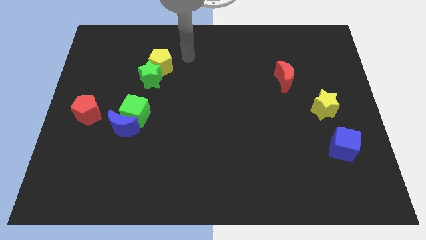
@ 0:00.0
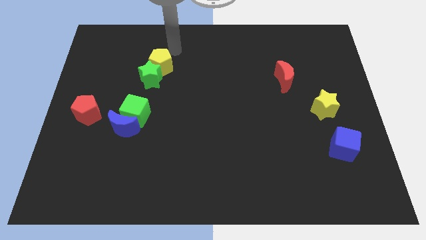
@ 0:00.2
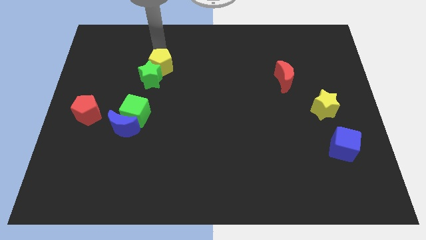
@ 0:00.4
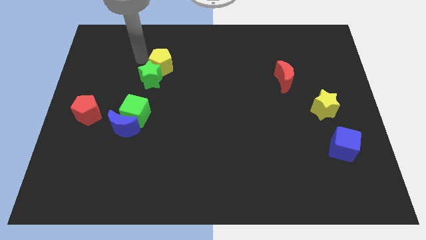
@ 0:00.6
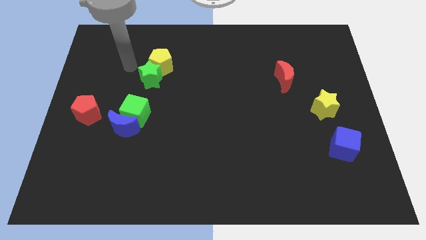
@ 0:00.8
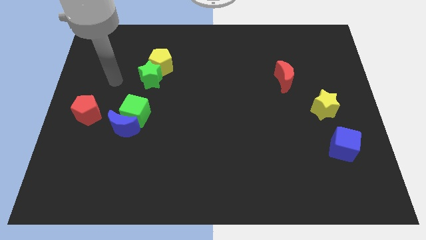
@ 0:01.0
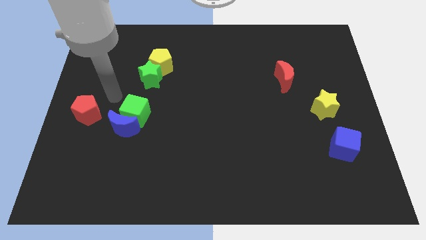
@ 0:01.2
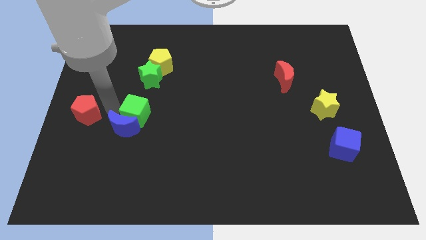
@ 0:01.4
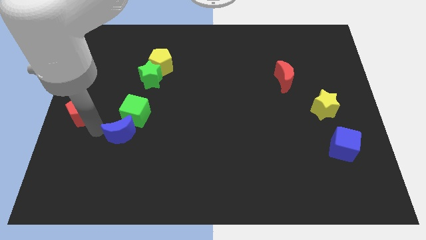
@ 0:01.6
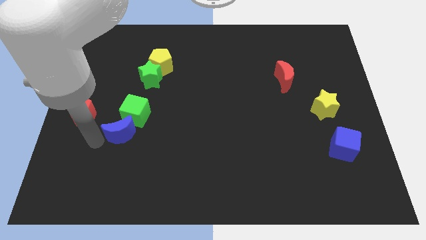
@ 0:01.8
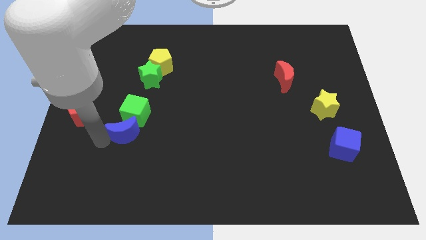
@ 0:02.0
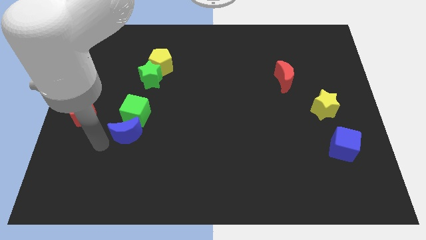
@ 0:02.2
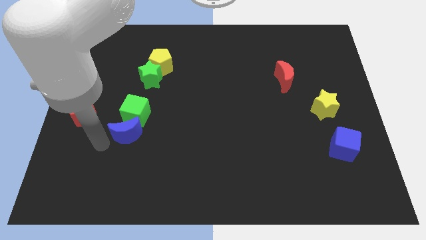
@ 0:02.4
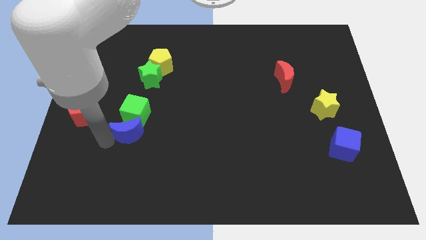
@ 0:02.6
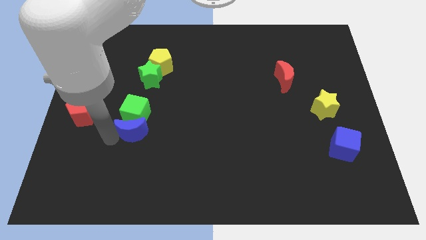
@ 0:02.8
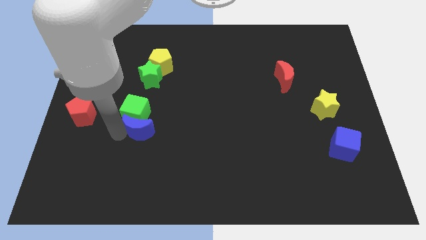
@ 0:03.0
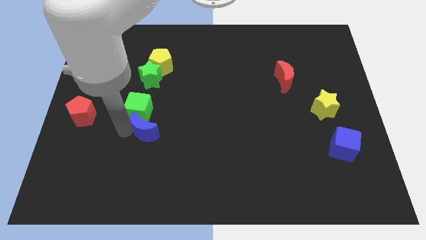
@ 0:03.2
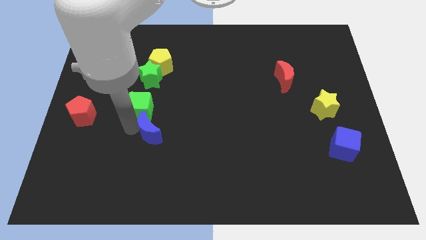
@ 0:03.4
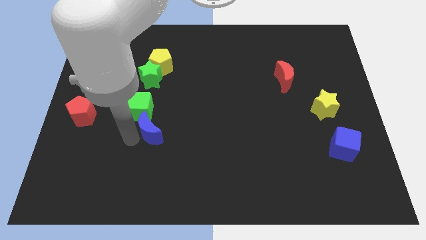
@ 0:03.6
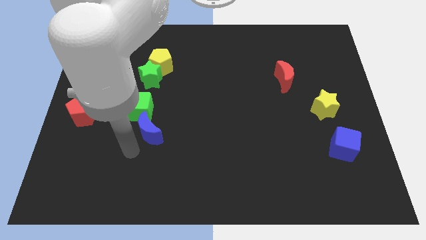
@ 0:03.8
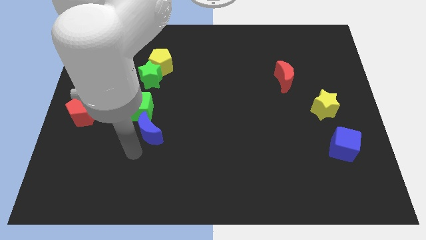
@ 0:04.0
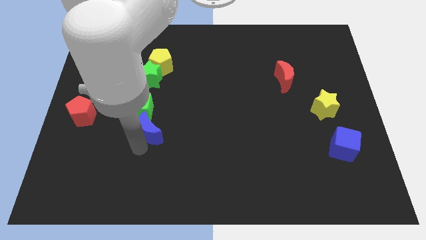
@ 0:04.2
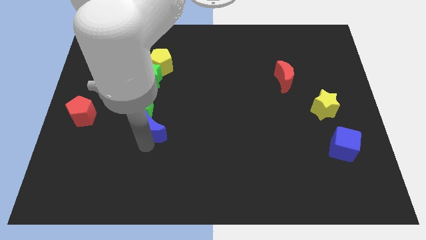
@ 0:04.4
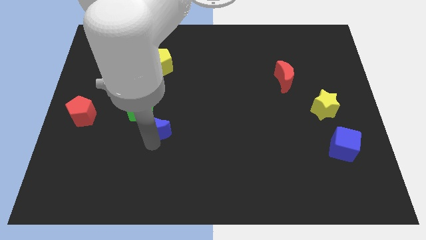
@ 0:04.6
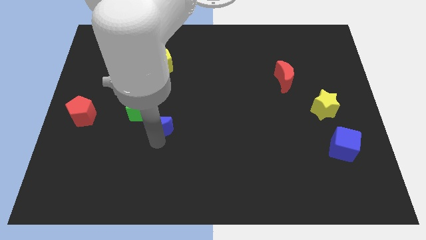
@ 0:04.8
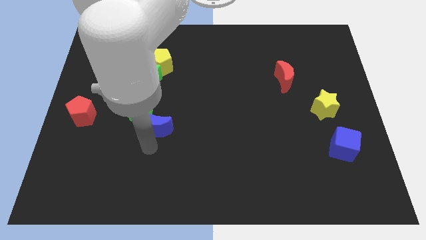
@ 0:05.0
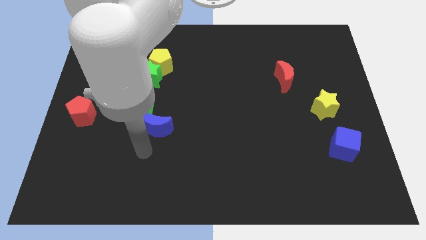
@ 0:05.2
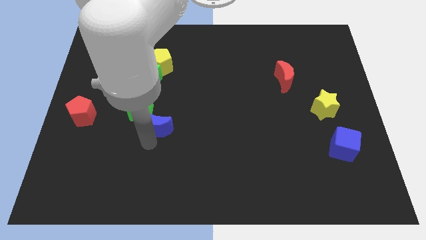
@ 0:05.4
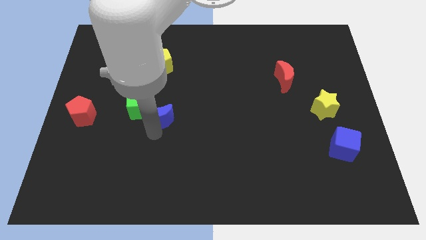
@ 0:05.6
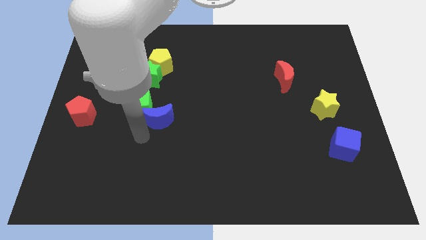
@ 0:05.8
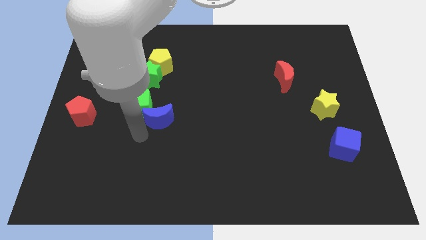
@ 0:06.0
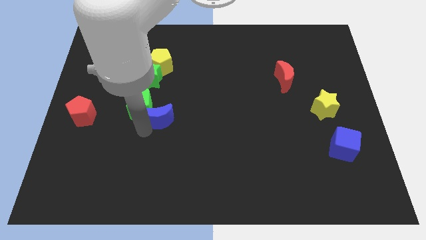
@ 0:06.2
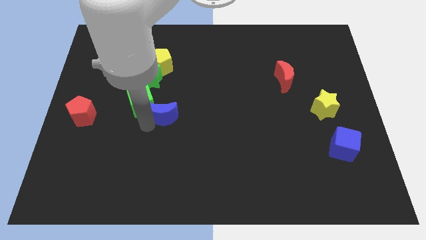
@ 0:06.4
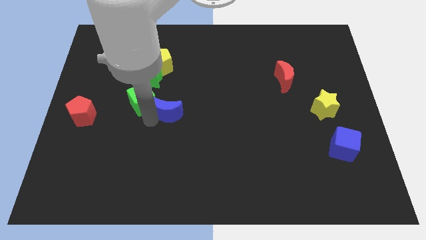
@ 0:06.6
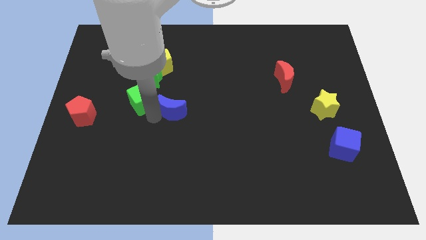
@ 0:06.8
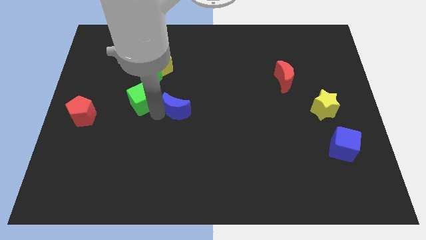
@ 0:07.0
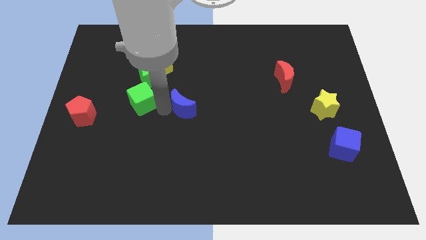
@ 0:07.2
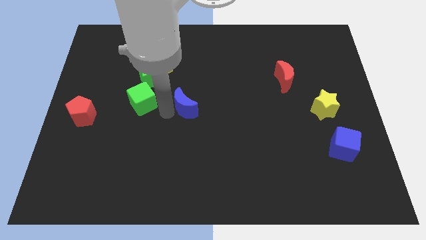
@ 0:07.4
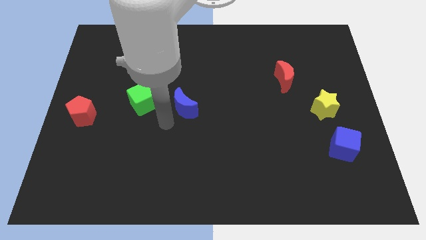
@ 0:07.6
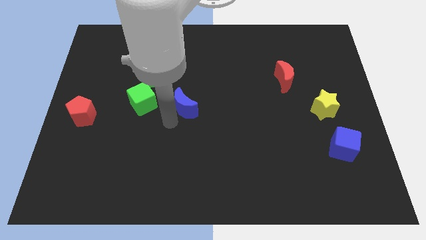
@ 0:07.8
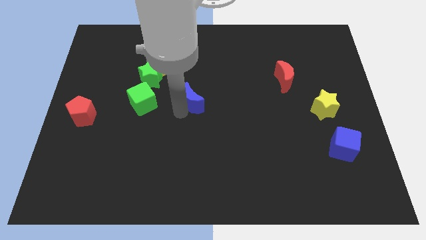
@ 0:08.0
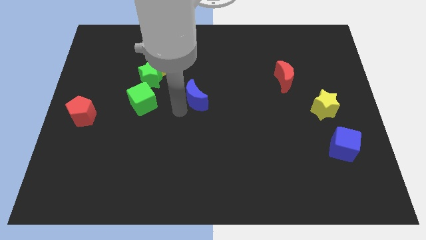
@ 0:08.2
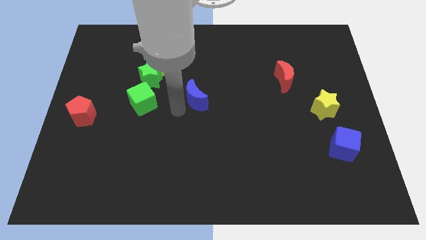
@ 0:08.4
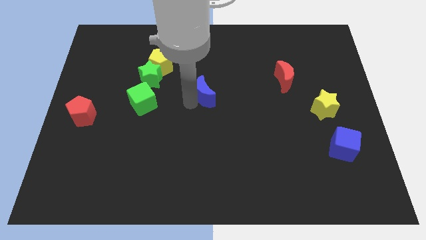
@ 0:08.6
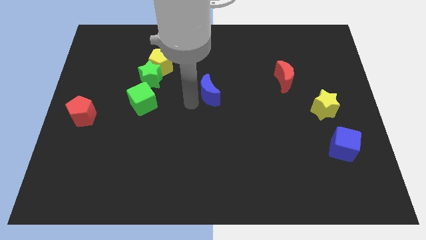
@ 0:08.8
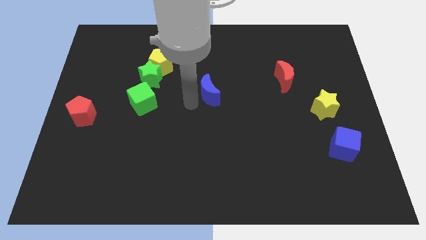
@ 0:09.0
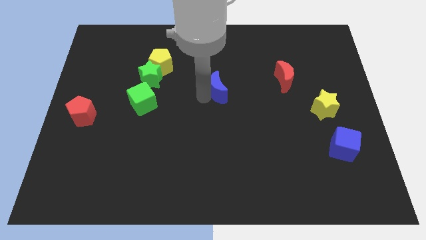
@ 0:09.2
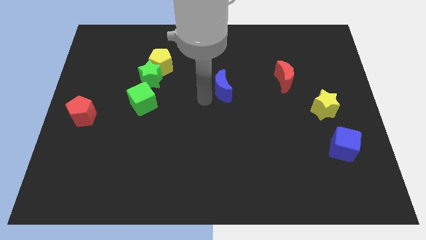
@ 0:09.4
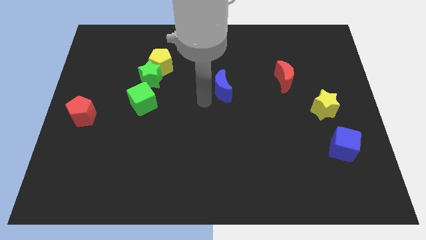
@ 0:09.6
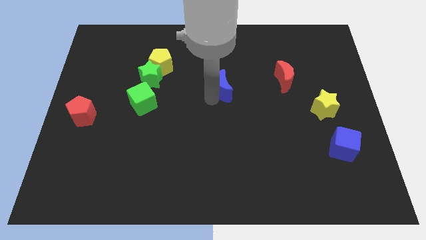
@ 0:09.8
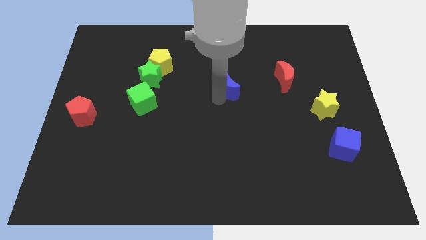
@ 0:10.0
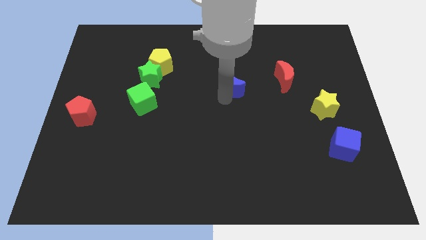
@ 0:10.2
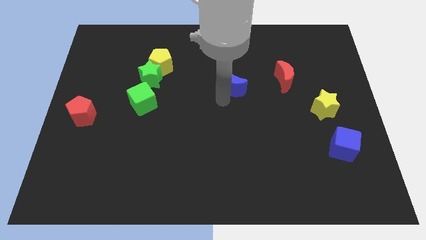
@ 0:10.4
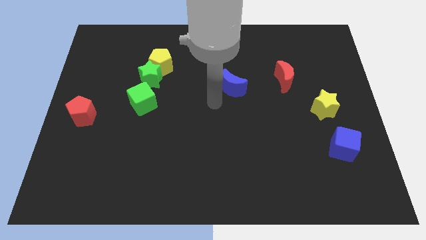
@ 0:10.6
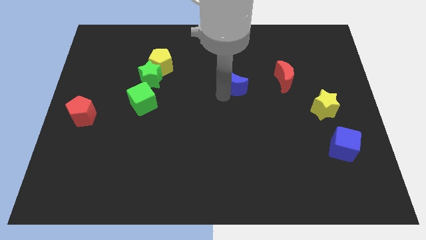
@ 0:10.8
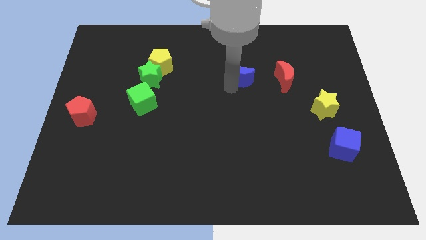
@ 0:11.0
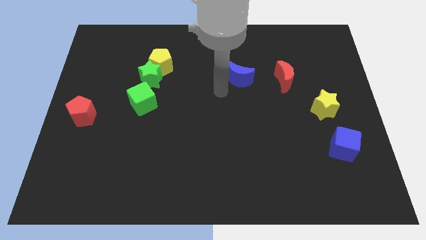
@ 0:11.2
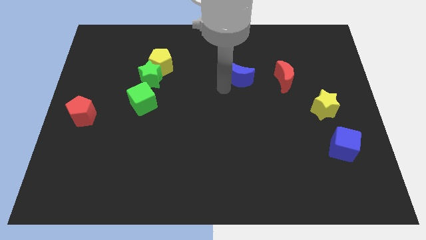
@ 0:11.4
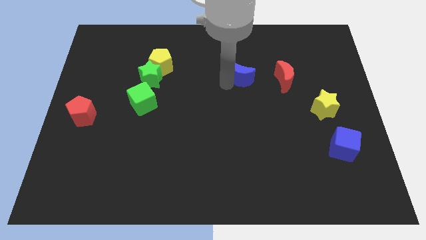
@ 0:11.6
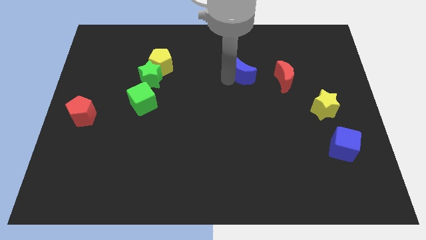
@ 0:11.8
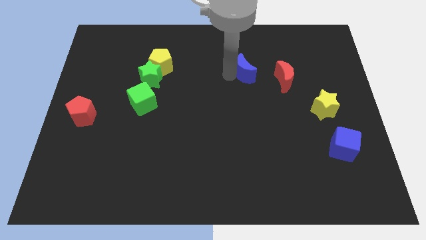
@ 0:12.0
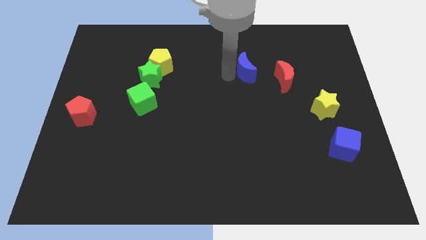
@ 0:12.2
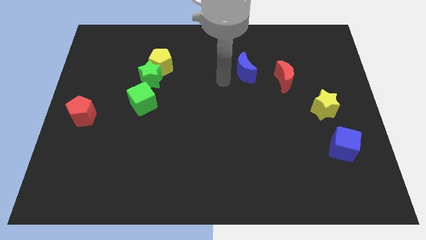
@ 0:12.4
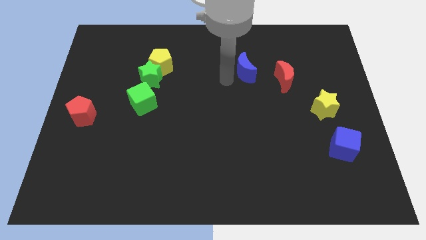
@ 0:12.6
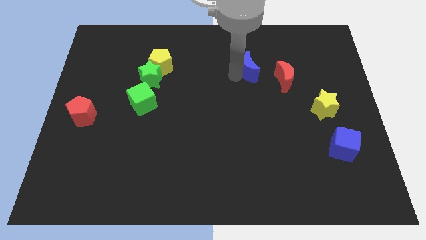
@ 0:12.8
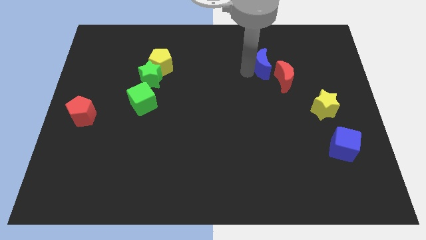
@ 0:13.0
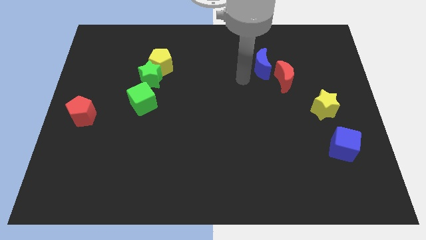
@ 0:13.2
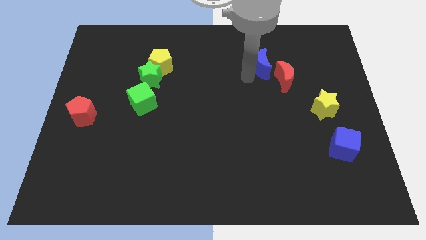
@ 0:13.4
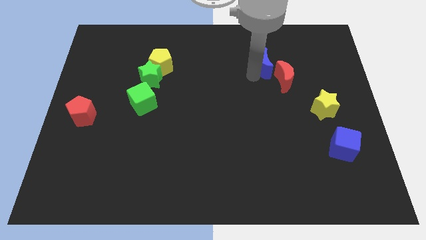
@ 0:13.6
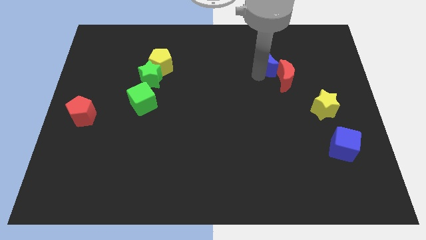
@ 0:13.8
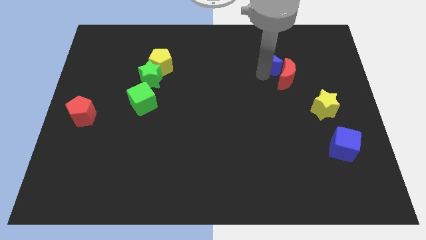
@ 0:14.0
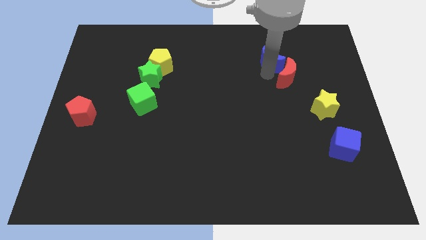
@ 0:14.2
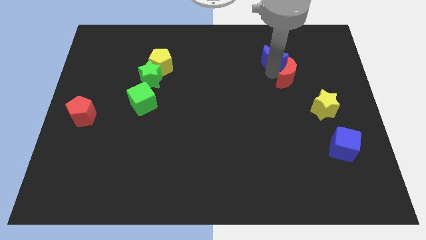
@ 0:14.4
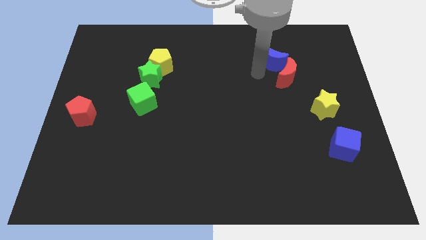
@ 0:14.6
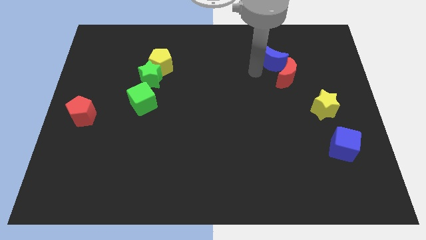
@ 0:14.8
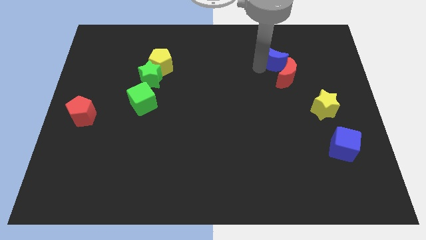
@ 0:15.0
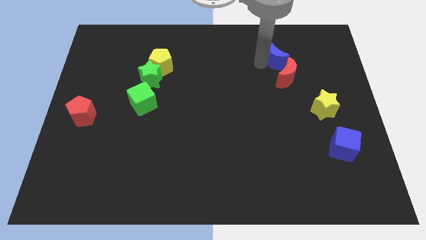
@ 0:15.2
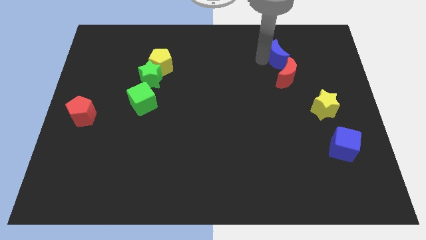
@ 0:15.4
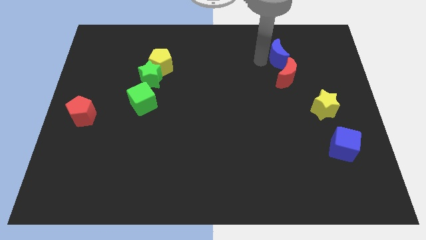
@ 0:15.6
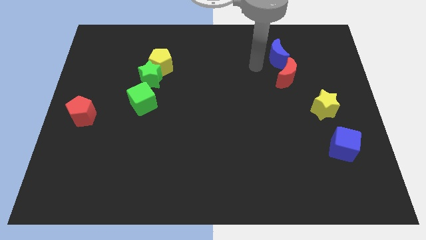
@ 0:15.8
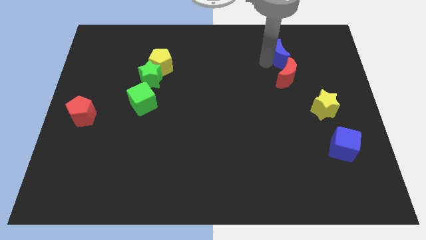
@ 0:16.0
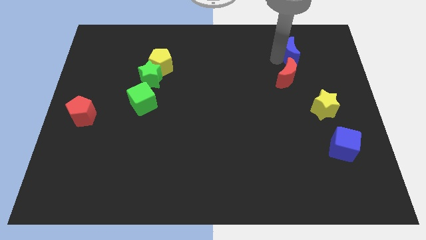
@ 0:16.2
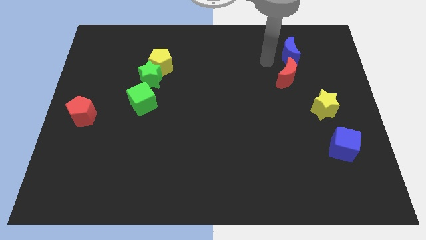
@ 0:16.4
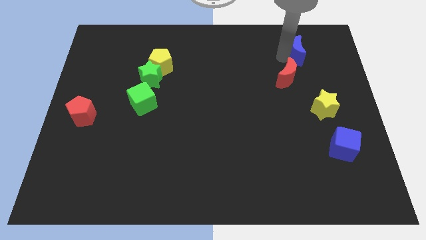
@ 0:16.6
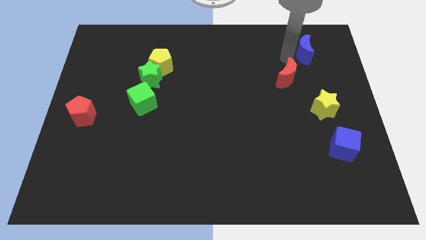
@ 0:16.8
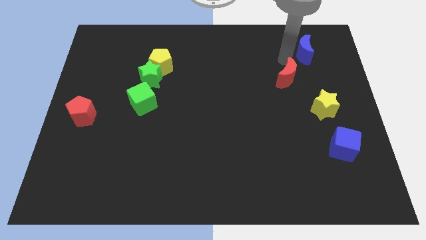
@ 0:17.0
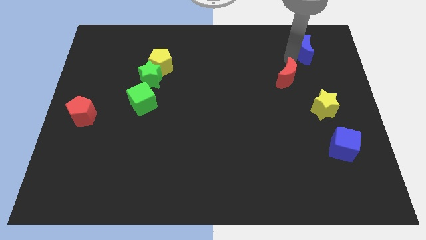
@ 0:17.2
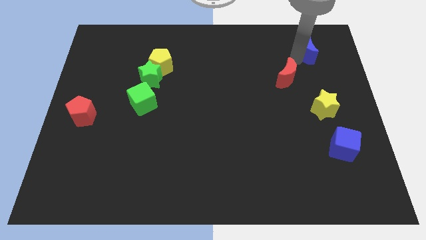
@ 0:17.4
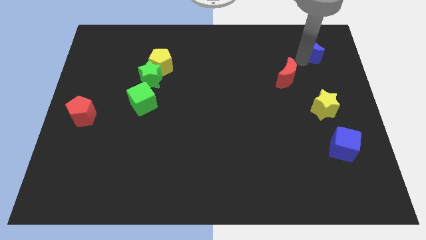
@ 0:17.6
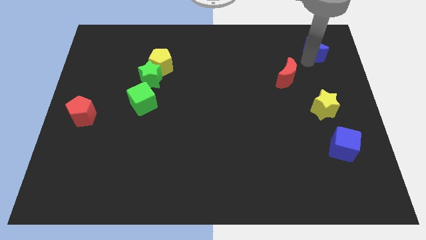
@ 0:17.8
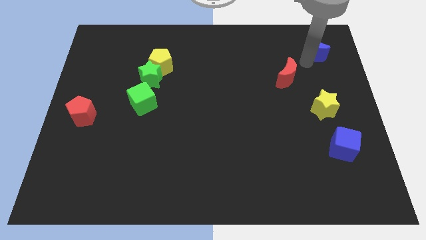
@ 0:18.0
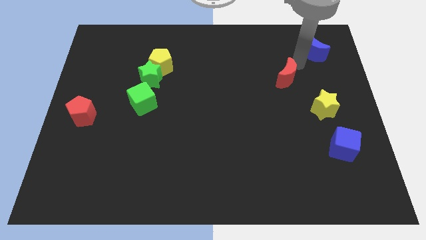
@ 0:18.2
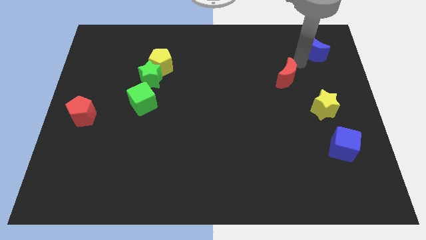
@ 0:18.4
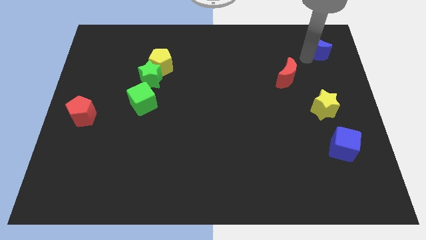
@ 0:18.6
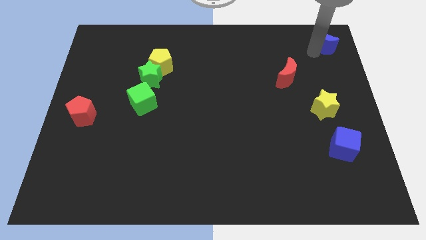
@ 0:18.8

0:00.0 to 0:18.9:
slide the blue moon to the top right of the board
